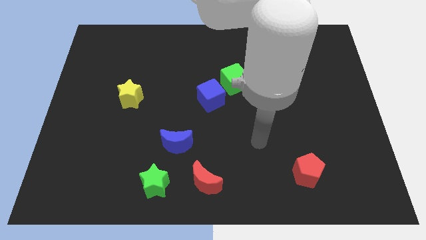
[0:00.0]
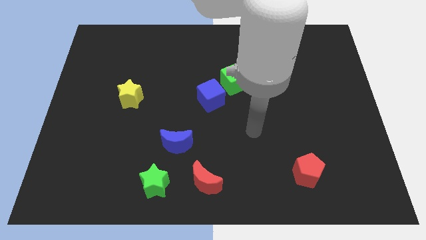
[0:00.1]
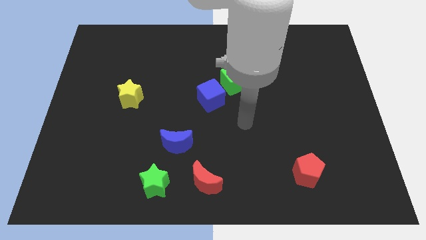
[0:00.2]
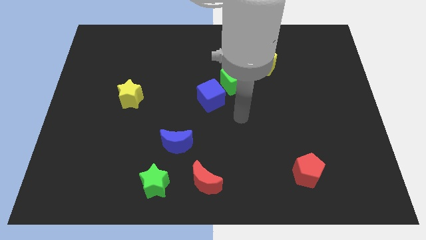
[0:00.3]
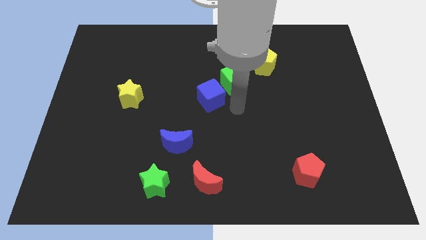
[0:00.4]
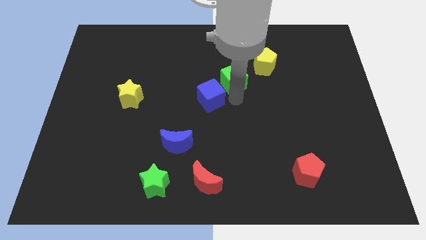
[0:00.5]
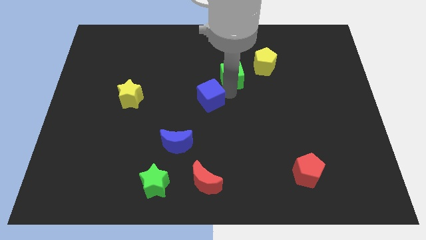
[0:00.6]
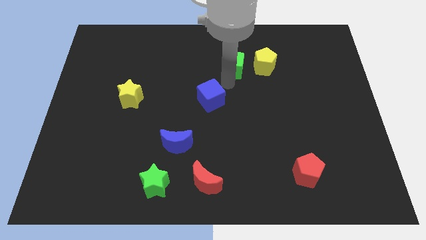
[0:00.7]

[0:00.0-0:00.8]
separate the blue cube from the green cube

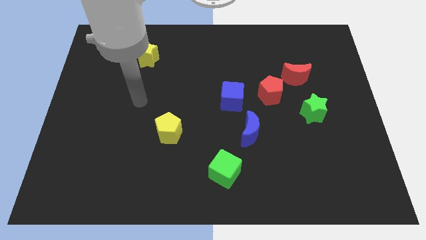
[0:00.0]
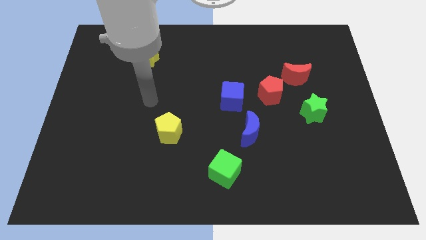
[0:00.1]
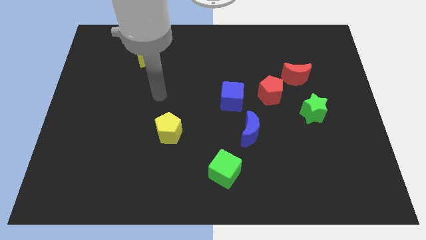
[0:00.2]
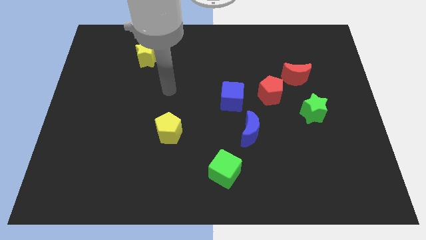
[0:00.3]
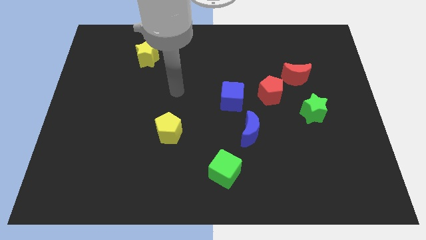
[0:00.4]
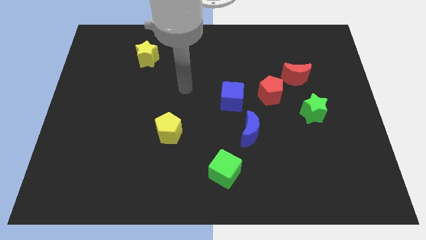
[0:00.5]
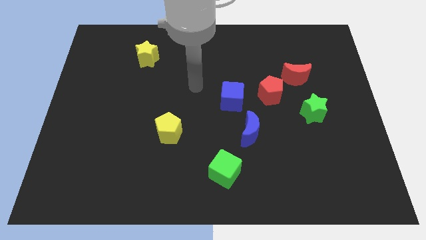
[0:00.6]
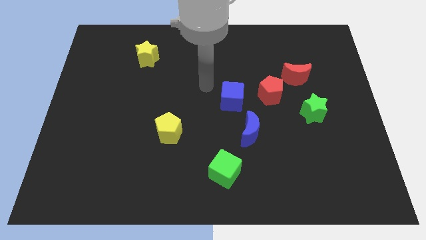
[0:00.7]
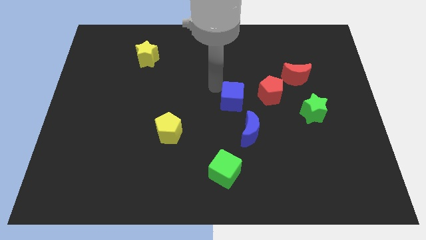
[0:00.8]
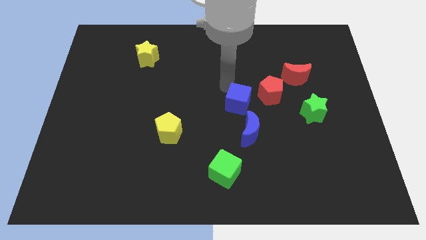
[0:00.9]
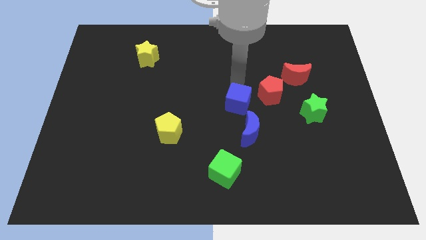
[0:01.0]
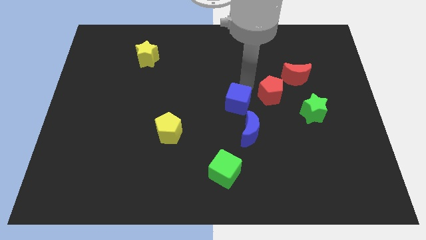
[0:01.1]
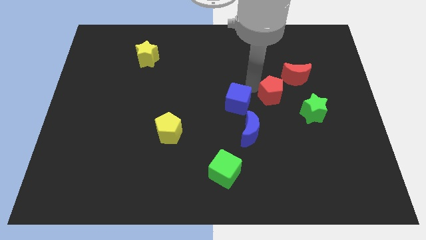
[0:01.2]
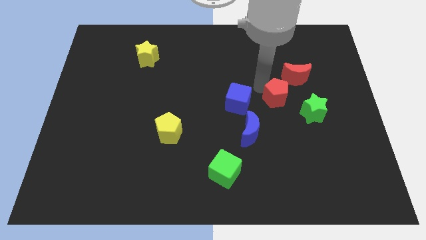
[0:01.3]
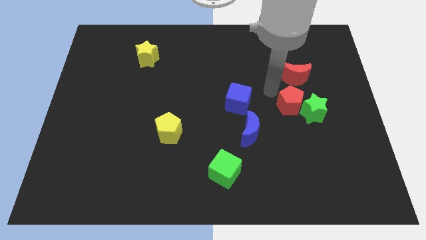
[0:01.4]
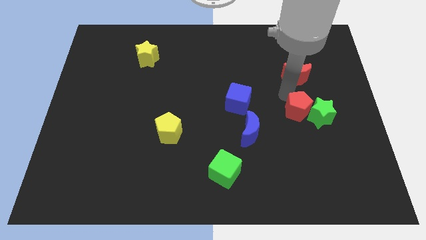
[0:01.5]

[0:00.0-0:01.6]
pull the red moon apart from the red pentagon

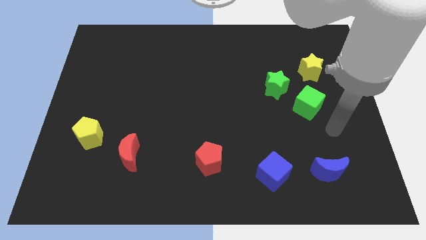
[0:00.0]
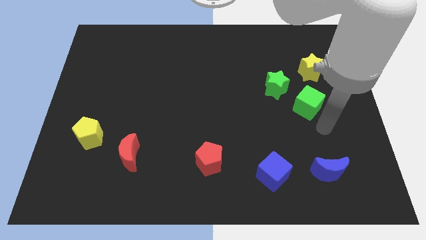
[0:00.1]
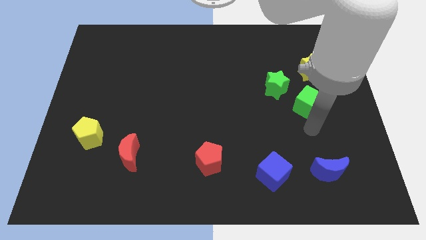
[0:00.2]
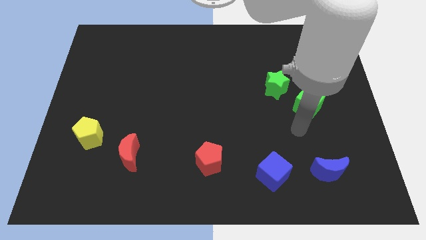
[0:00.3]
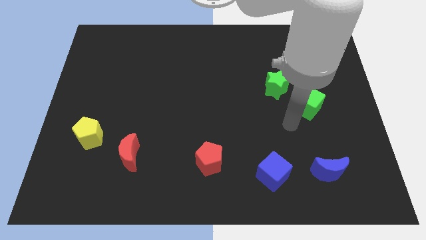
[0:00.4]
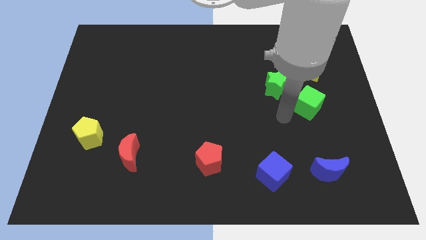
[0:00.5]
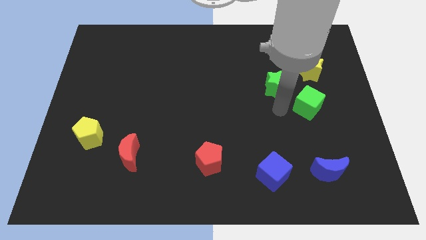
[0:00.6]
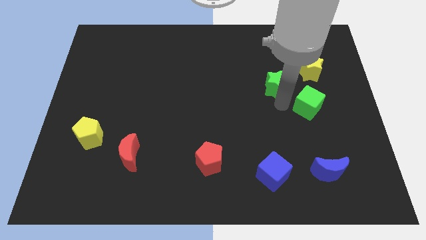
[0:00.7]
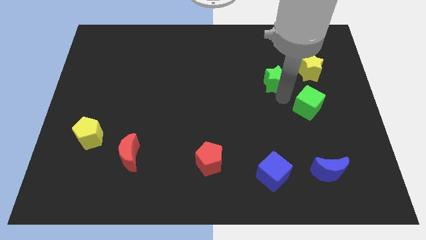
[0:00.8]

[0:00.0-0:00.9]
separate the green cube from the green star

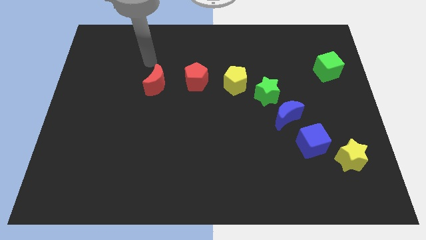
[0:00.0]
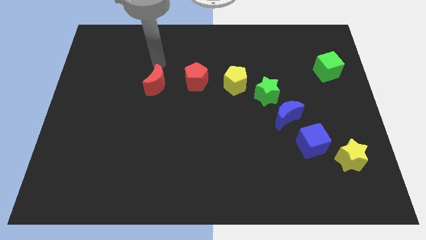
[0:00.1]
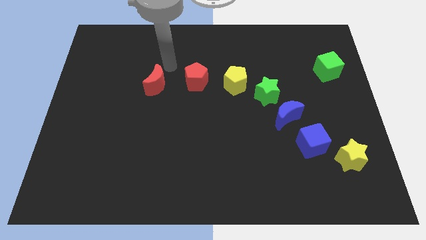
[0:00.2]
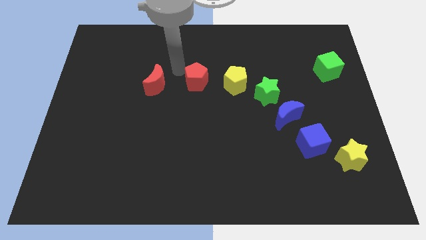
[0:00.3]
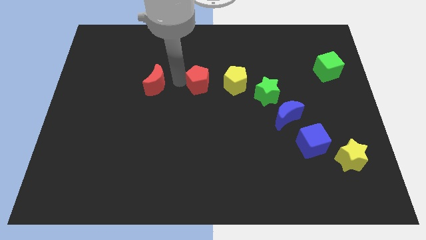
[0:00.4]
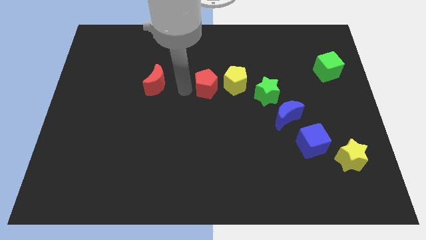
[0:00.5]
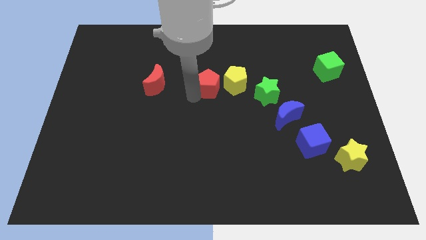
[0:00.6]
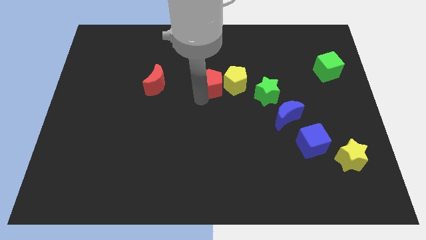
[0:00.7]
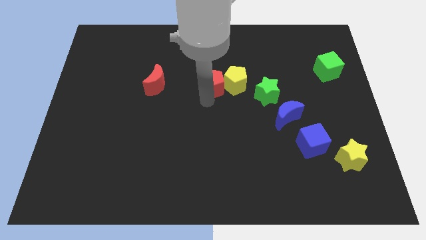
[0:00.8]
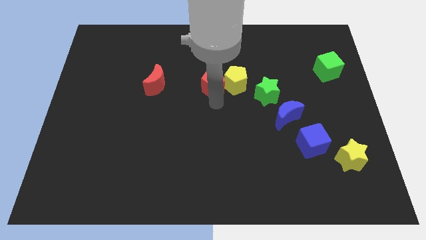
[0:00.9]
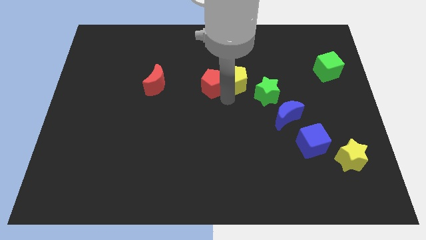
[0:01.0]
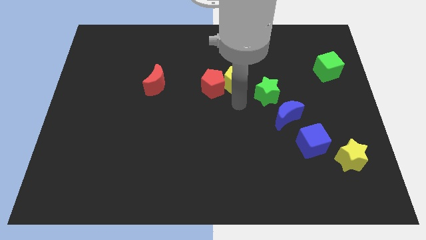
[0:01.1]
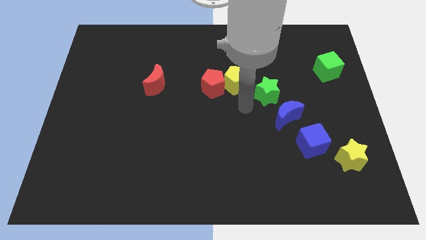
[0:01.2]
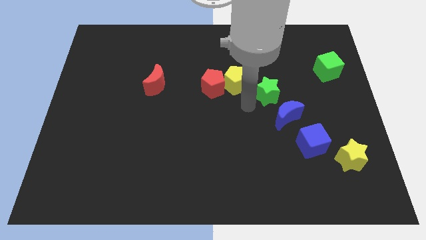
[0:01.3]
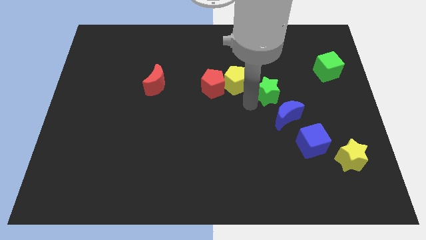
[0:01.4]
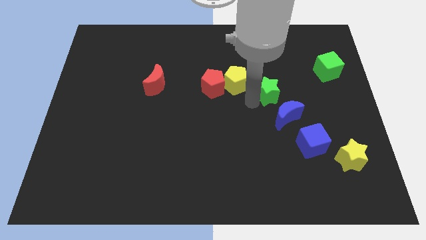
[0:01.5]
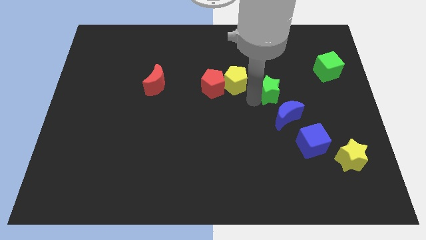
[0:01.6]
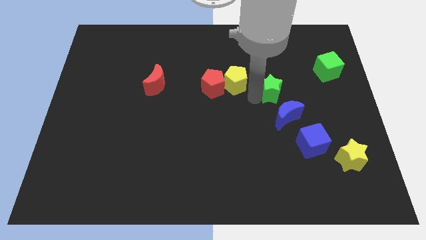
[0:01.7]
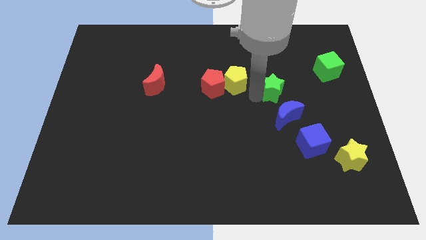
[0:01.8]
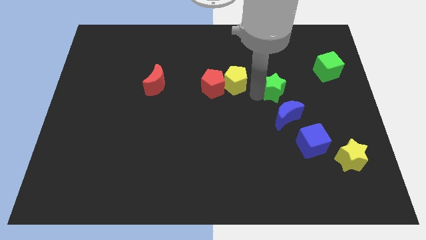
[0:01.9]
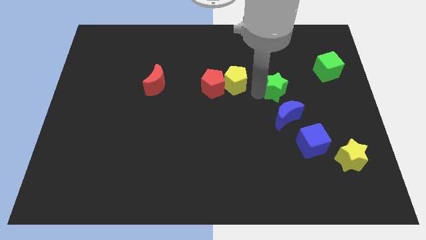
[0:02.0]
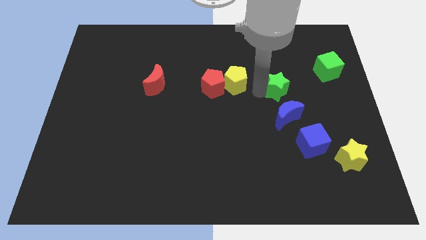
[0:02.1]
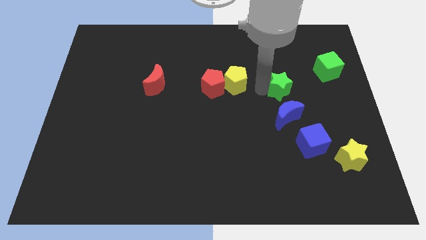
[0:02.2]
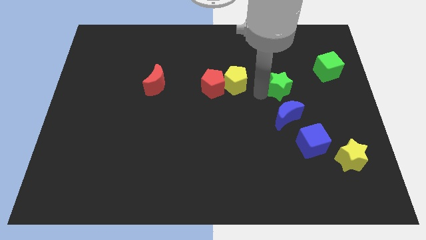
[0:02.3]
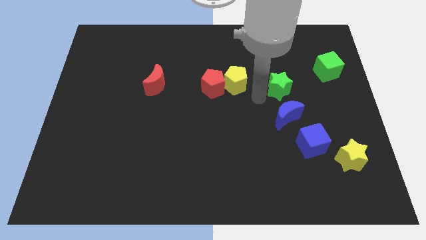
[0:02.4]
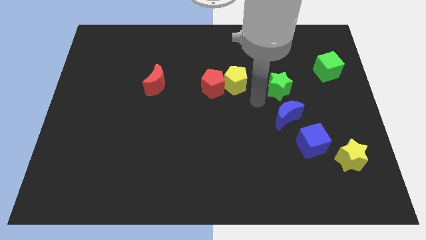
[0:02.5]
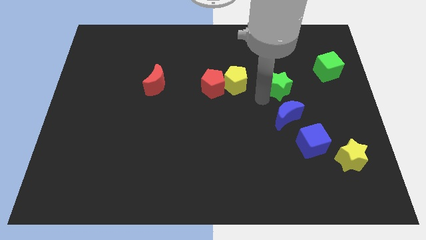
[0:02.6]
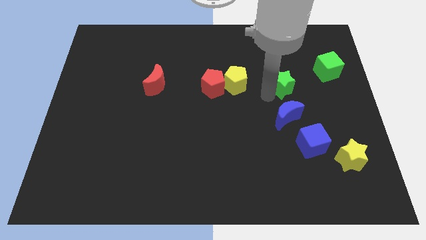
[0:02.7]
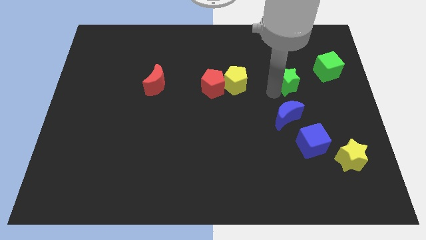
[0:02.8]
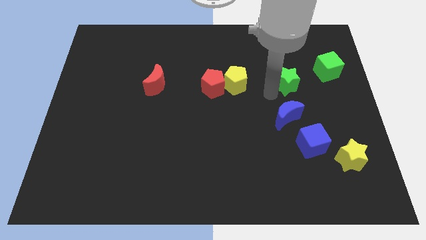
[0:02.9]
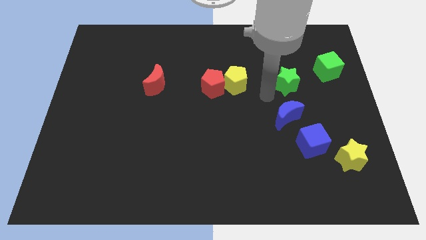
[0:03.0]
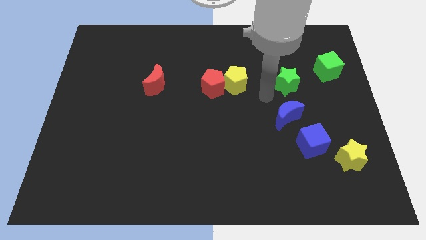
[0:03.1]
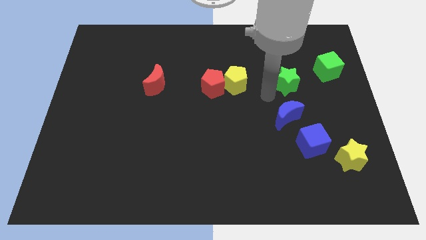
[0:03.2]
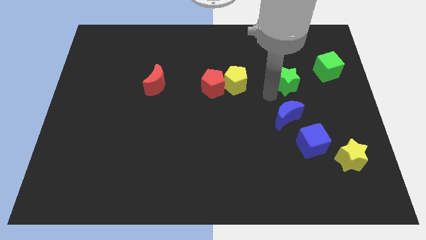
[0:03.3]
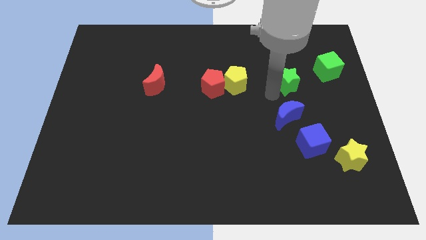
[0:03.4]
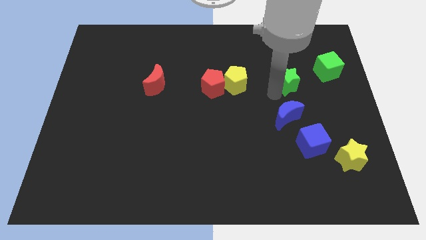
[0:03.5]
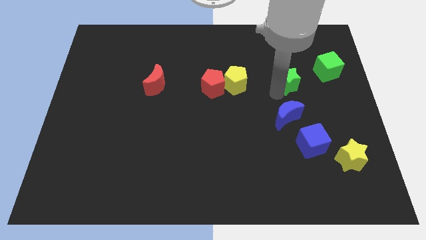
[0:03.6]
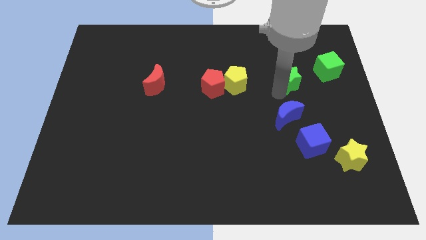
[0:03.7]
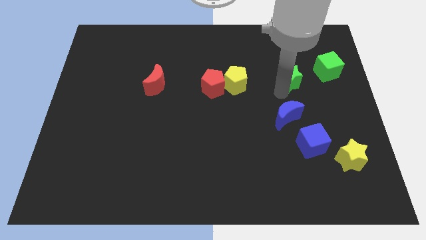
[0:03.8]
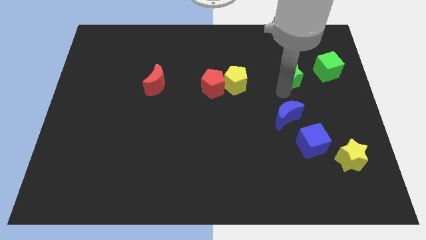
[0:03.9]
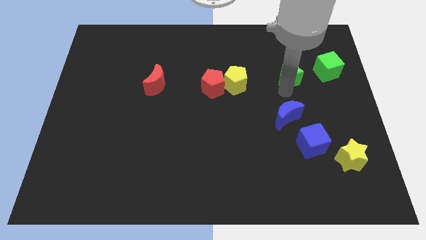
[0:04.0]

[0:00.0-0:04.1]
pull the green star apart from the blue moon and yellow pentagon

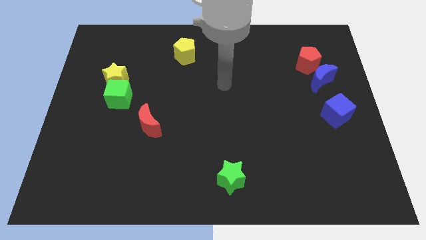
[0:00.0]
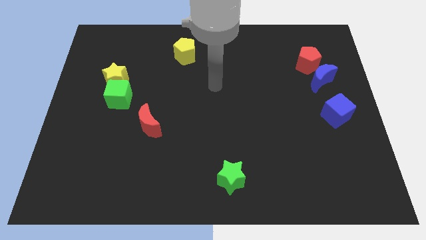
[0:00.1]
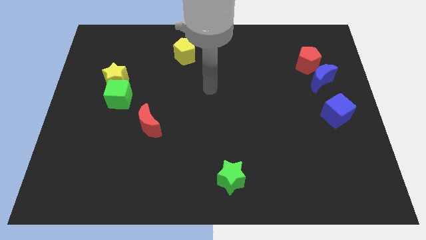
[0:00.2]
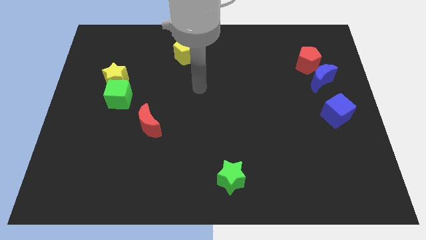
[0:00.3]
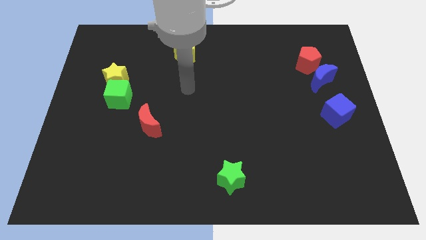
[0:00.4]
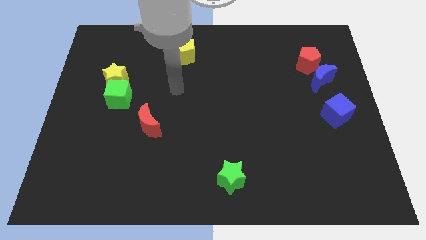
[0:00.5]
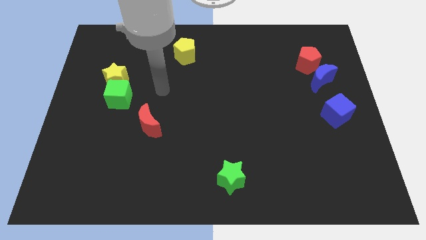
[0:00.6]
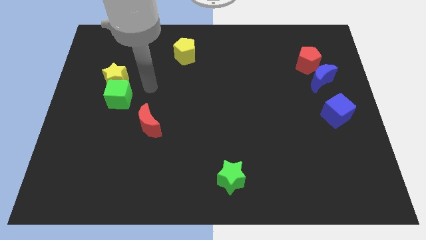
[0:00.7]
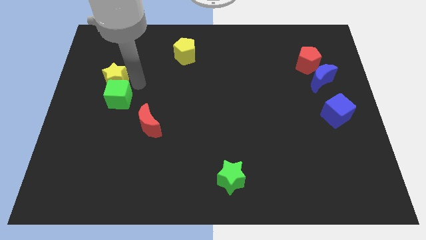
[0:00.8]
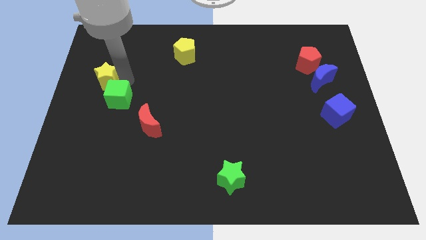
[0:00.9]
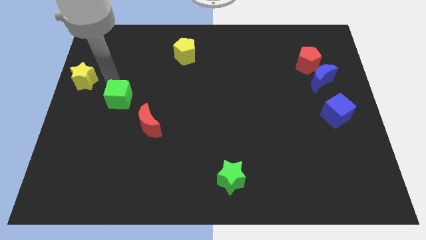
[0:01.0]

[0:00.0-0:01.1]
separate the green cube from the yellow star

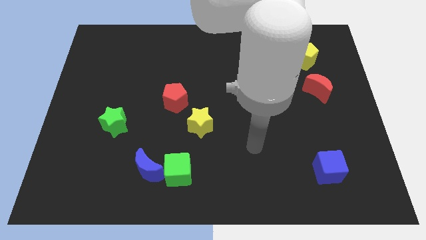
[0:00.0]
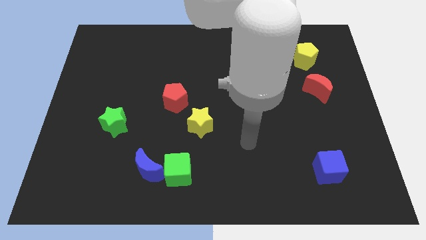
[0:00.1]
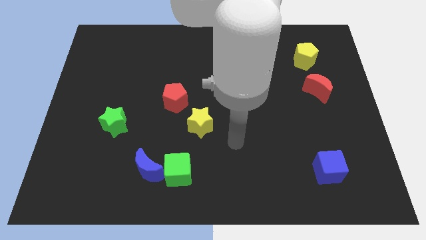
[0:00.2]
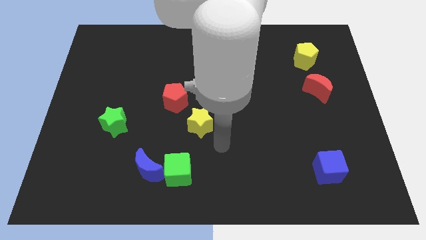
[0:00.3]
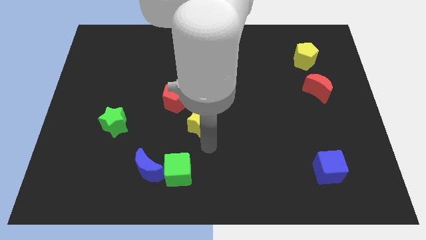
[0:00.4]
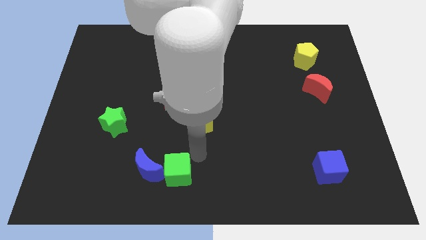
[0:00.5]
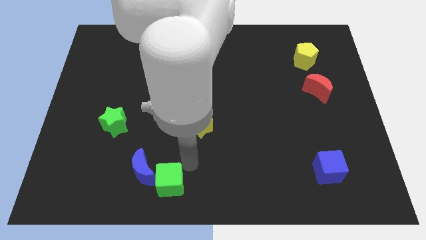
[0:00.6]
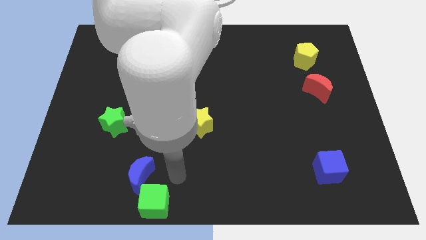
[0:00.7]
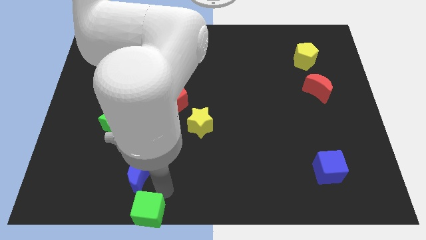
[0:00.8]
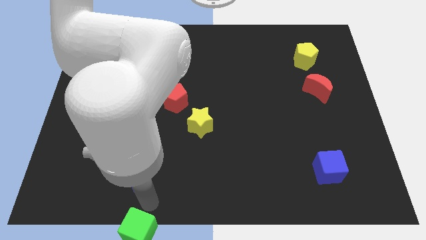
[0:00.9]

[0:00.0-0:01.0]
pull the blue moon apart from the green cube

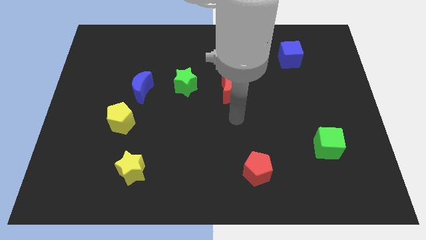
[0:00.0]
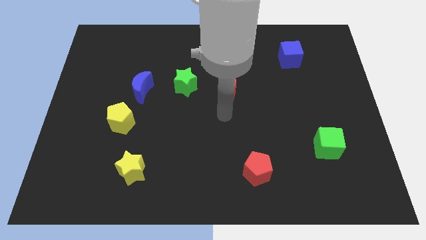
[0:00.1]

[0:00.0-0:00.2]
move the blue moon away from the yellow pentagon
